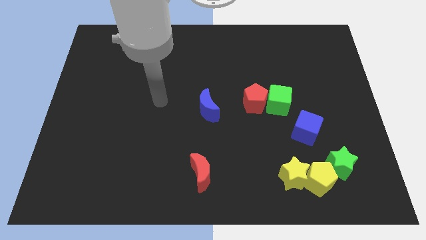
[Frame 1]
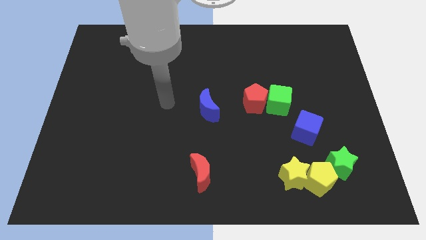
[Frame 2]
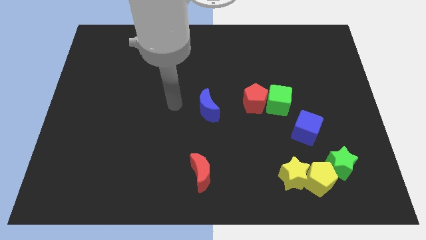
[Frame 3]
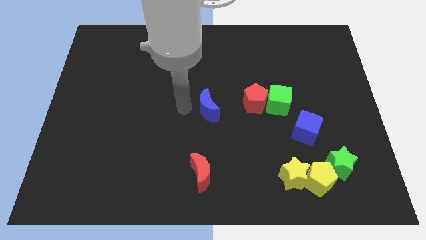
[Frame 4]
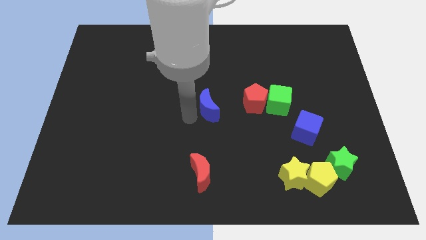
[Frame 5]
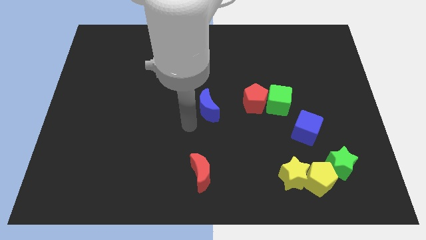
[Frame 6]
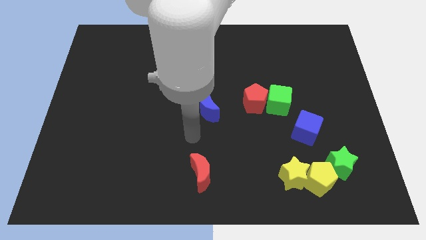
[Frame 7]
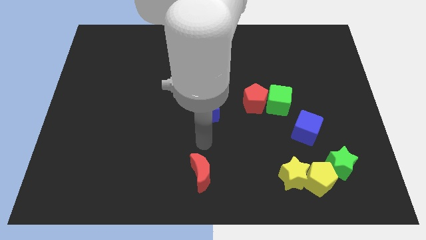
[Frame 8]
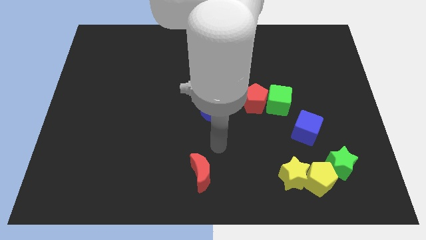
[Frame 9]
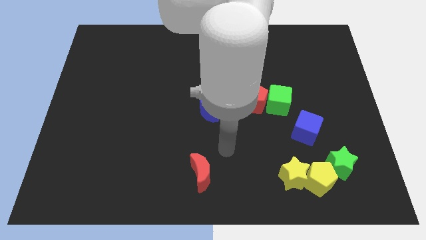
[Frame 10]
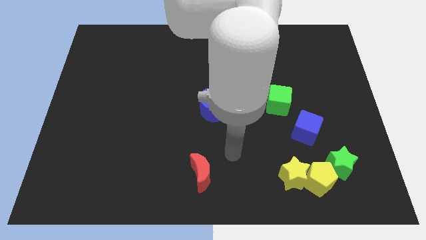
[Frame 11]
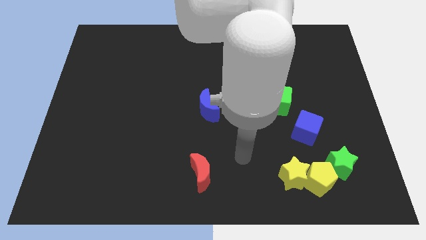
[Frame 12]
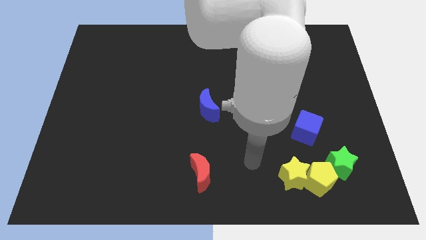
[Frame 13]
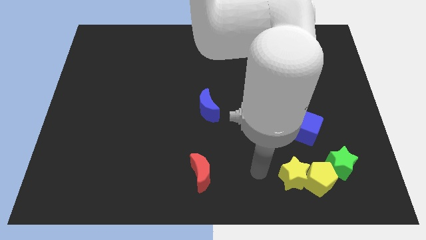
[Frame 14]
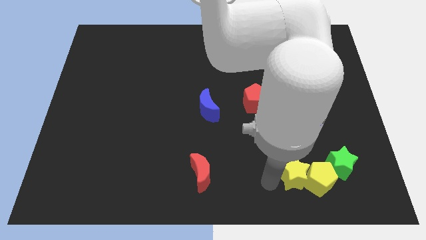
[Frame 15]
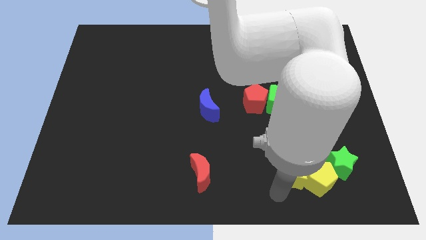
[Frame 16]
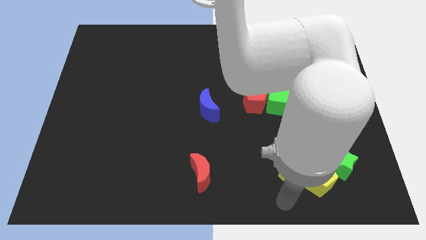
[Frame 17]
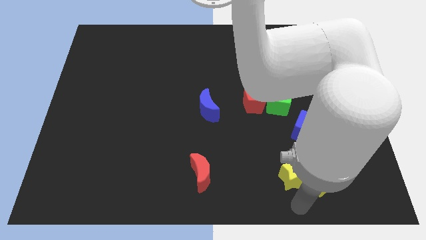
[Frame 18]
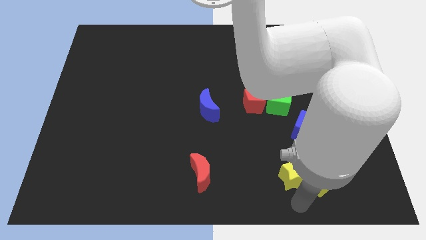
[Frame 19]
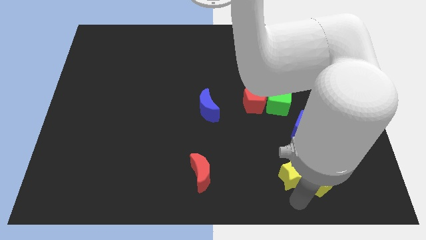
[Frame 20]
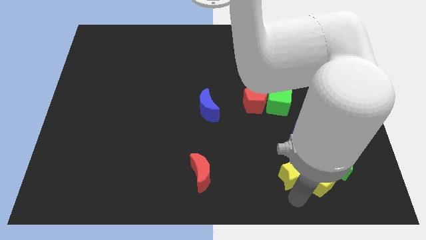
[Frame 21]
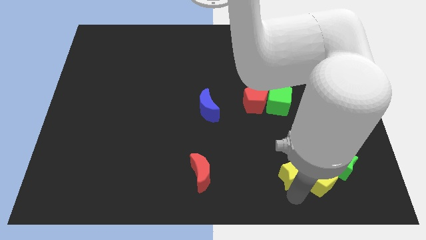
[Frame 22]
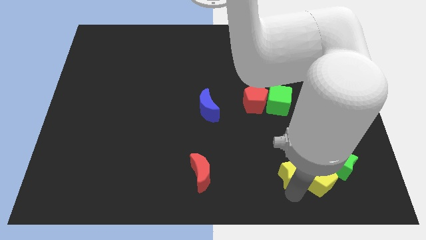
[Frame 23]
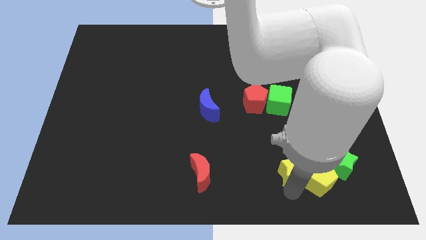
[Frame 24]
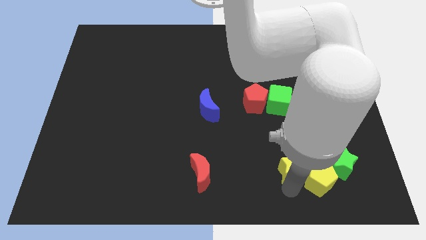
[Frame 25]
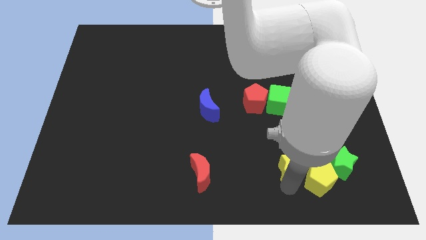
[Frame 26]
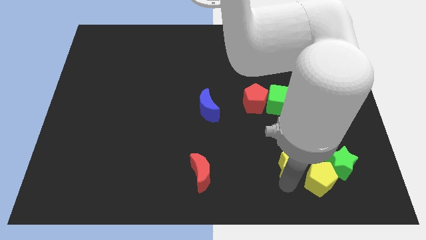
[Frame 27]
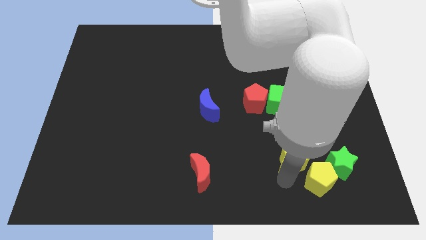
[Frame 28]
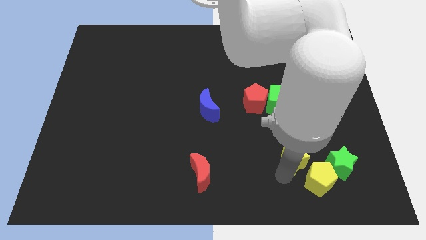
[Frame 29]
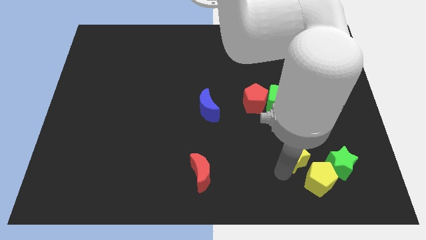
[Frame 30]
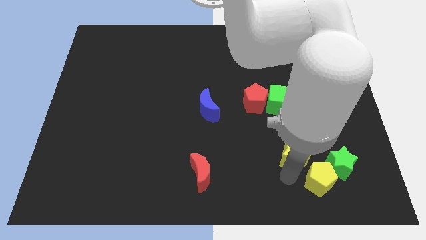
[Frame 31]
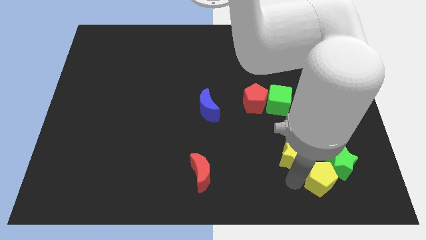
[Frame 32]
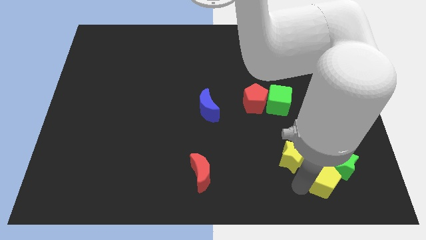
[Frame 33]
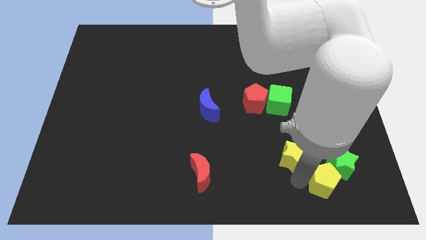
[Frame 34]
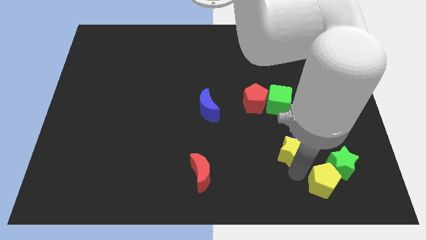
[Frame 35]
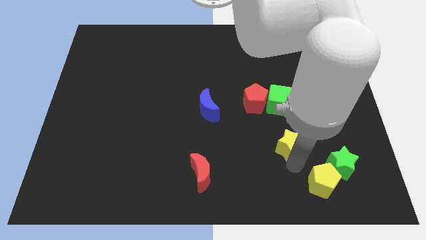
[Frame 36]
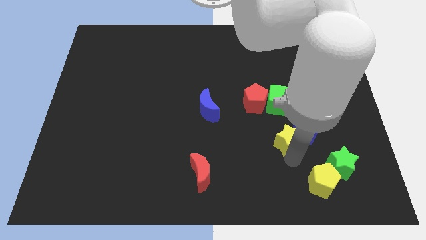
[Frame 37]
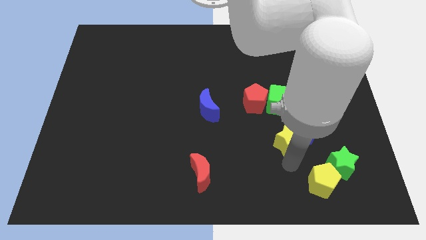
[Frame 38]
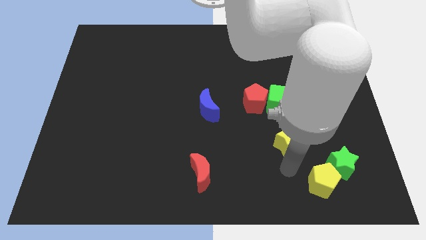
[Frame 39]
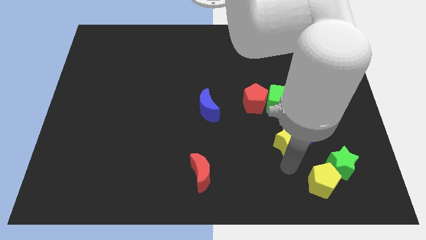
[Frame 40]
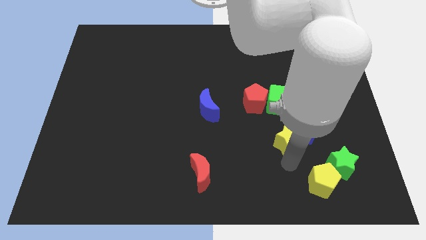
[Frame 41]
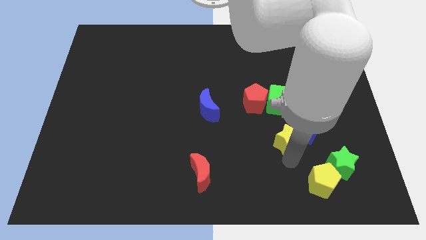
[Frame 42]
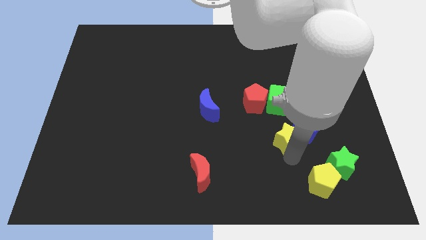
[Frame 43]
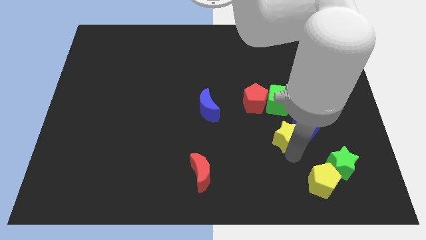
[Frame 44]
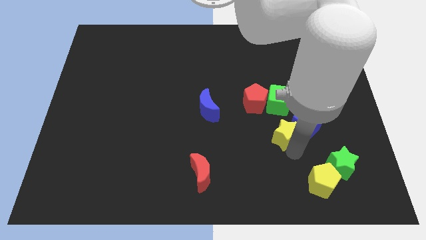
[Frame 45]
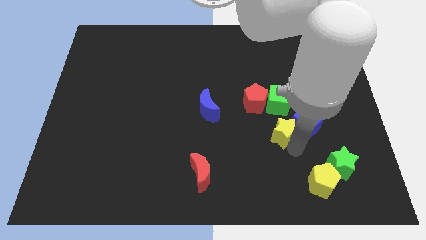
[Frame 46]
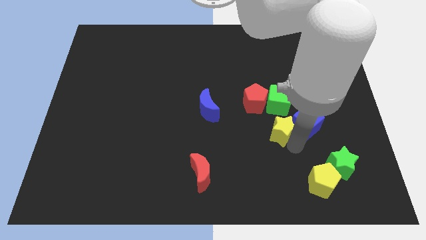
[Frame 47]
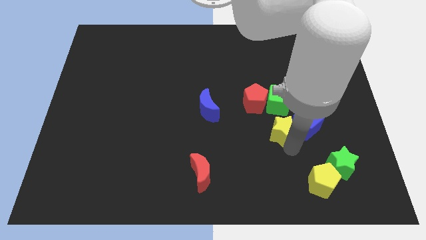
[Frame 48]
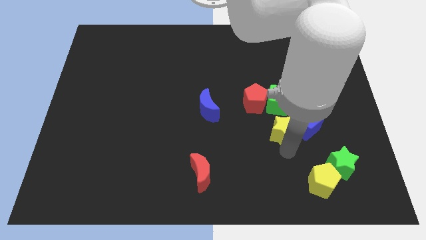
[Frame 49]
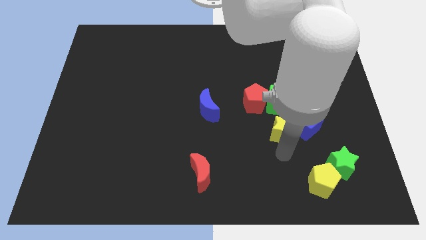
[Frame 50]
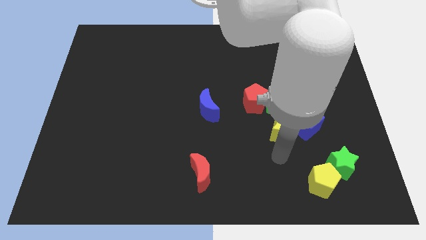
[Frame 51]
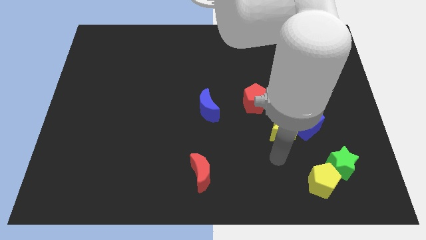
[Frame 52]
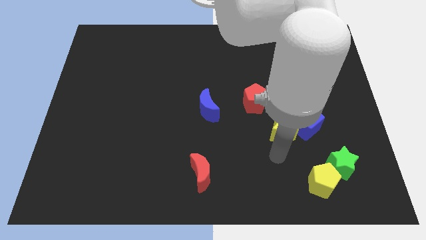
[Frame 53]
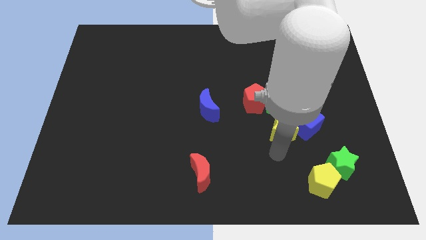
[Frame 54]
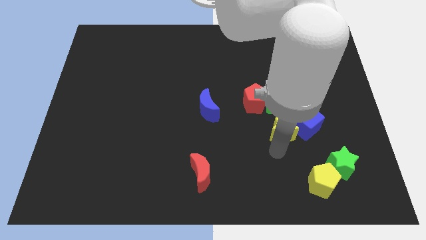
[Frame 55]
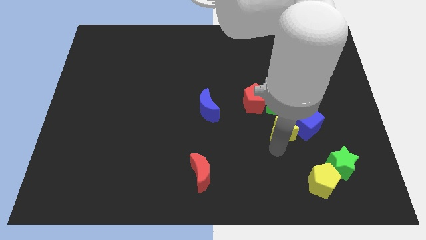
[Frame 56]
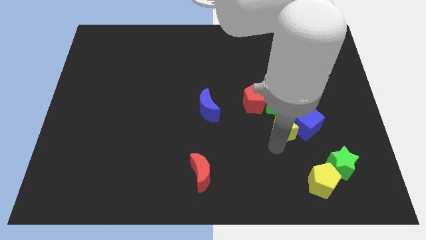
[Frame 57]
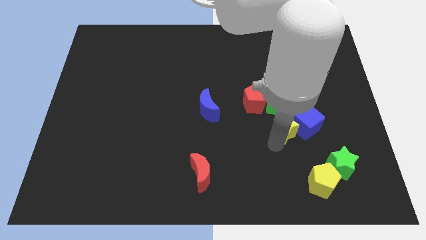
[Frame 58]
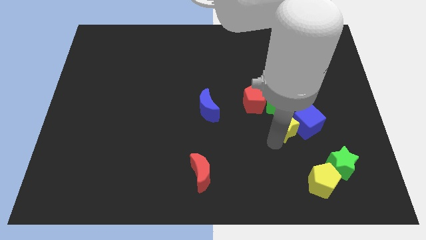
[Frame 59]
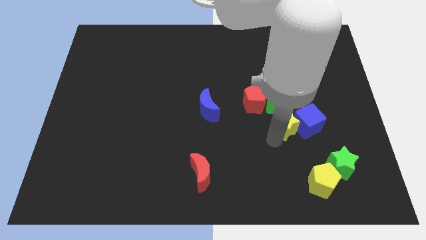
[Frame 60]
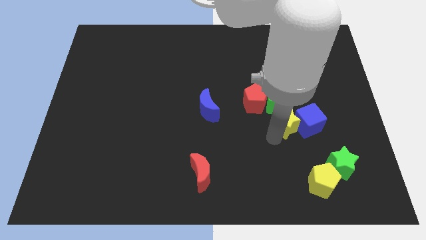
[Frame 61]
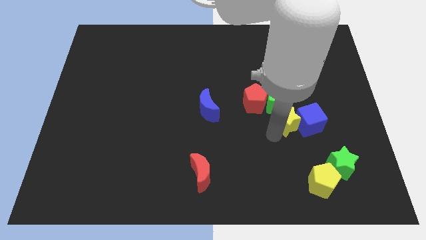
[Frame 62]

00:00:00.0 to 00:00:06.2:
slide the yellow star to the green cube
